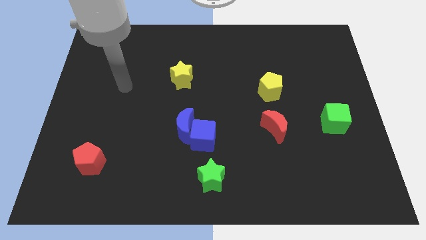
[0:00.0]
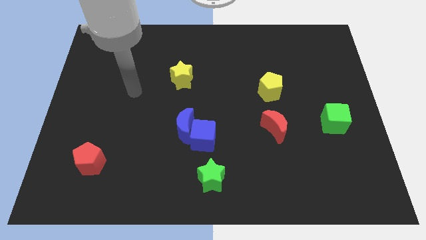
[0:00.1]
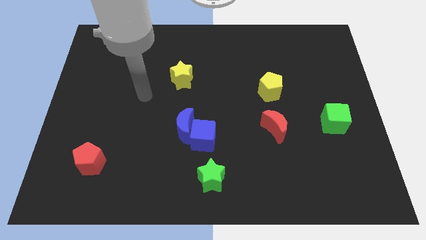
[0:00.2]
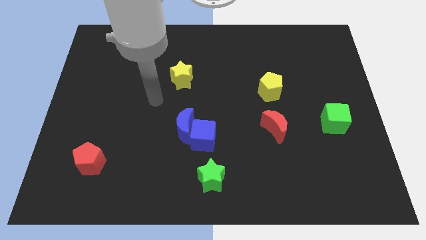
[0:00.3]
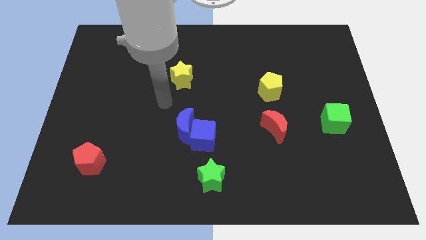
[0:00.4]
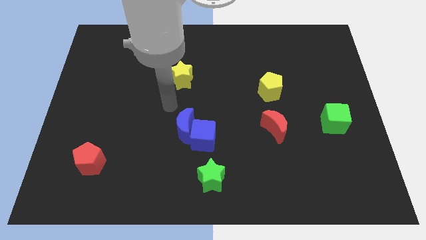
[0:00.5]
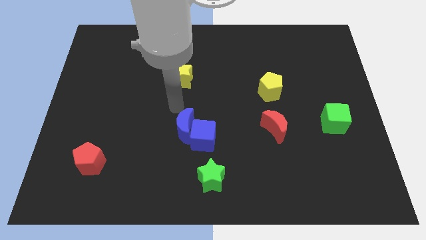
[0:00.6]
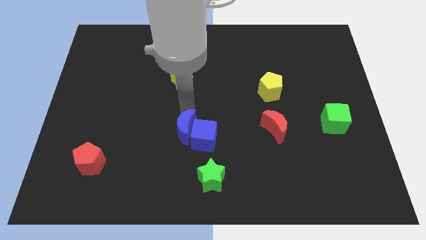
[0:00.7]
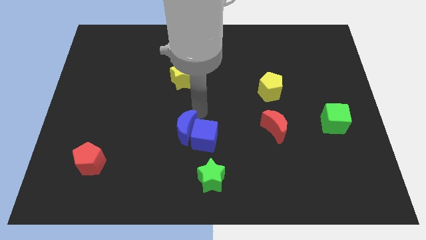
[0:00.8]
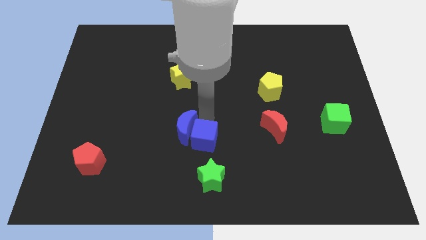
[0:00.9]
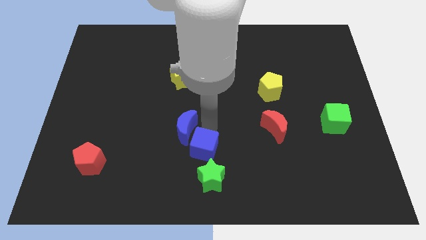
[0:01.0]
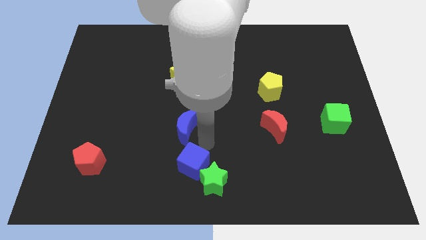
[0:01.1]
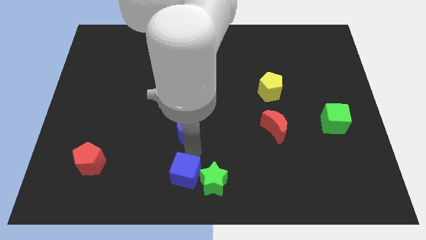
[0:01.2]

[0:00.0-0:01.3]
separate the blue moon from the blue cube

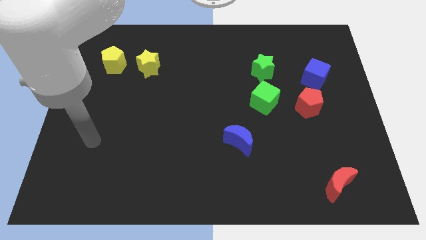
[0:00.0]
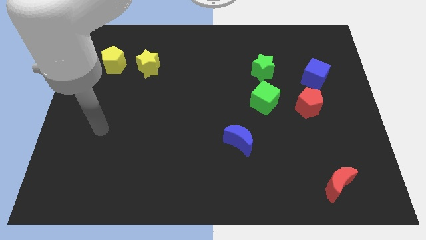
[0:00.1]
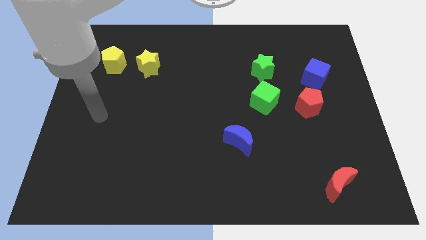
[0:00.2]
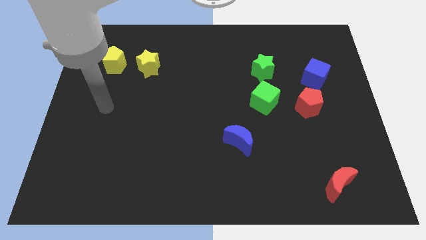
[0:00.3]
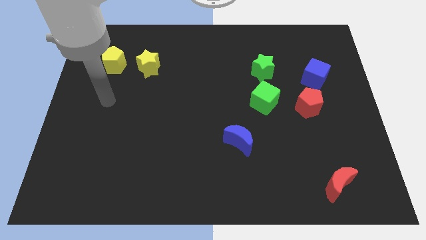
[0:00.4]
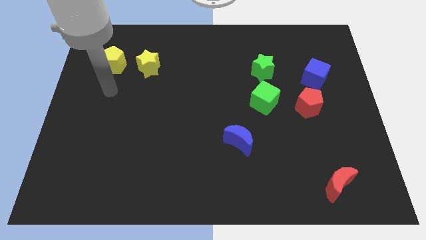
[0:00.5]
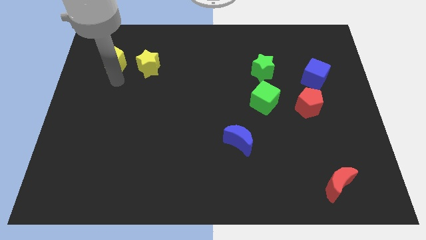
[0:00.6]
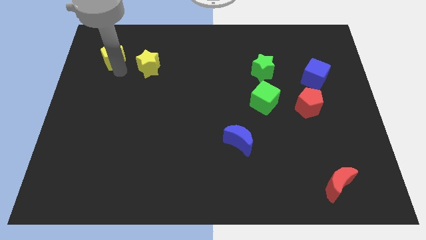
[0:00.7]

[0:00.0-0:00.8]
move the yellow star away from the yellow pentagon

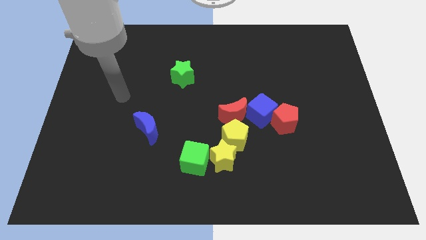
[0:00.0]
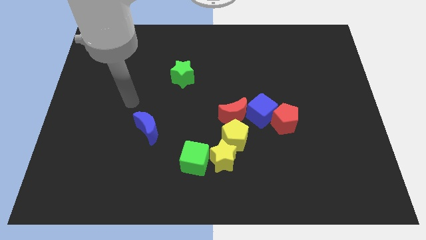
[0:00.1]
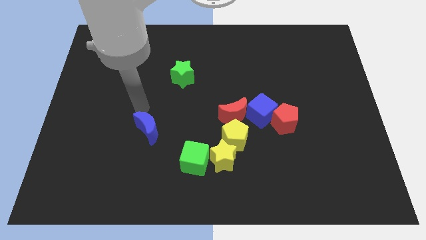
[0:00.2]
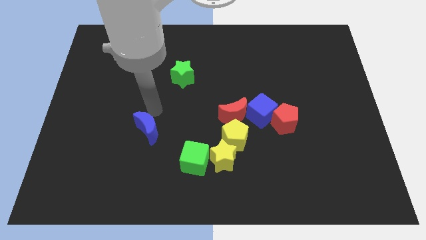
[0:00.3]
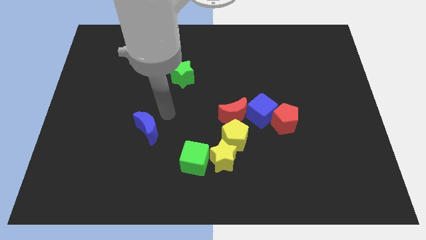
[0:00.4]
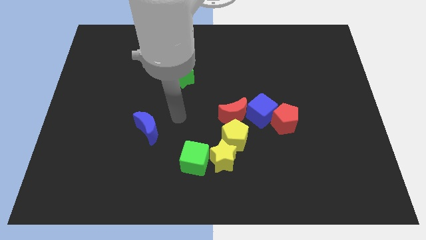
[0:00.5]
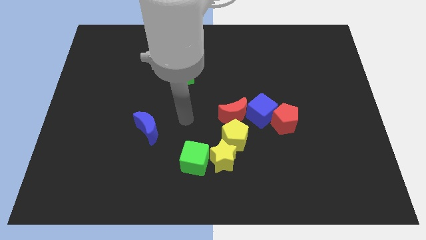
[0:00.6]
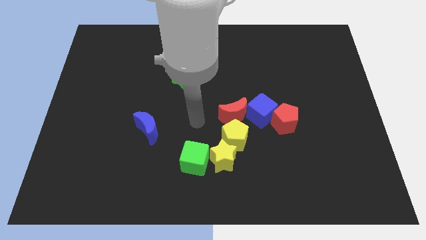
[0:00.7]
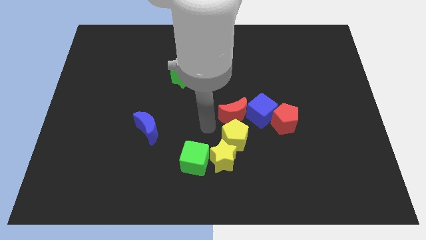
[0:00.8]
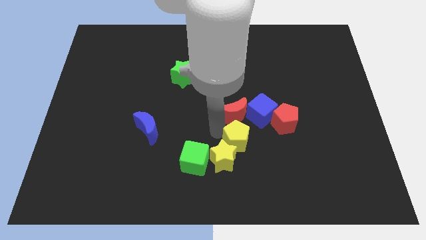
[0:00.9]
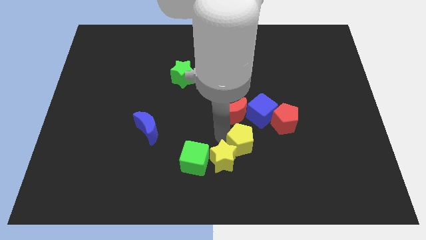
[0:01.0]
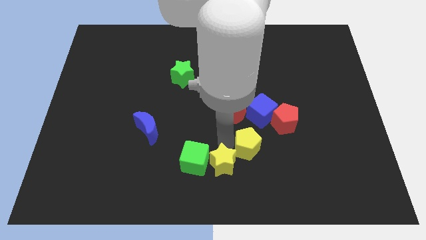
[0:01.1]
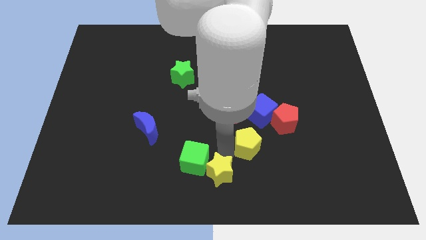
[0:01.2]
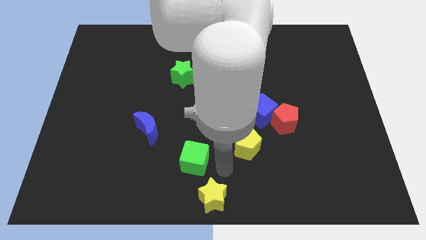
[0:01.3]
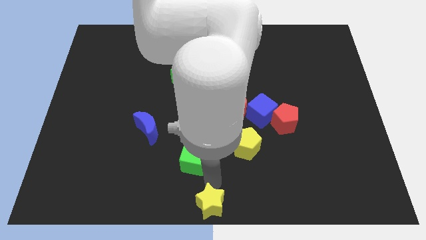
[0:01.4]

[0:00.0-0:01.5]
pull the green cube apart from the yellow star

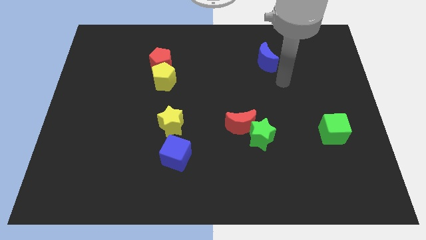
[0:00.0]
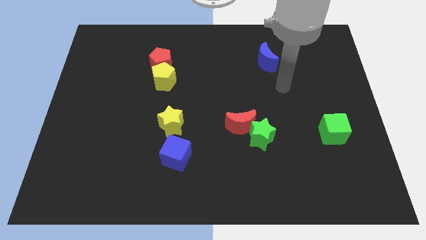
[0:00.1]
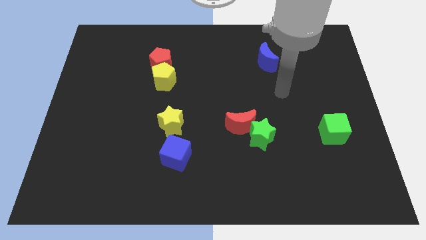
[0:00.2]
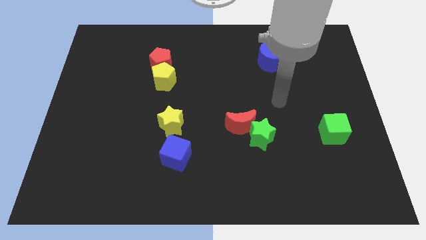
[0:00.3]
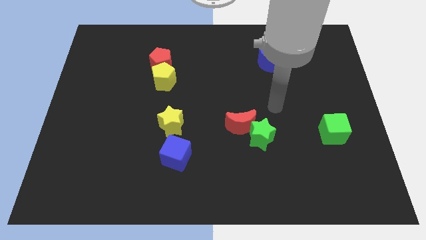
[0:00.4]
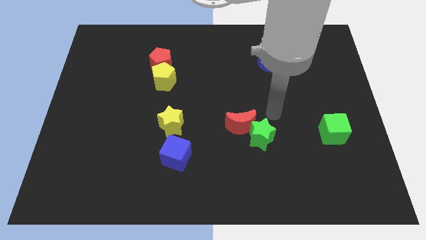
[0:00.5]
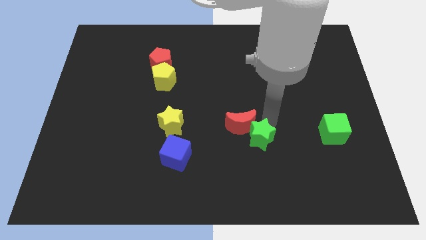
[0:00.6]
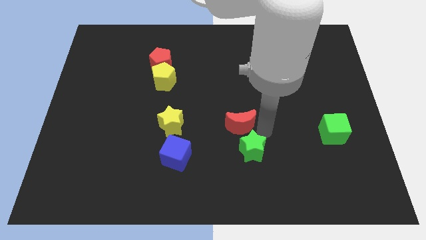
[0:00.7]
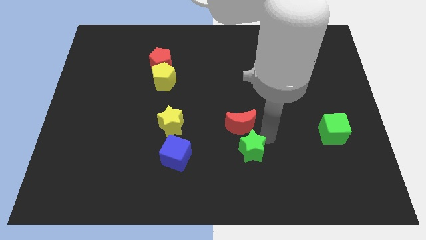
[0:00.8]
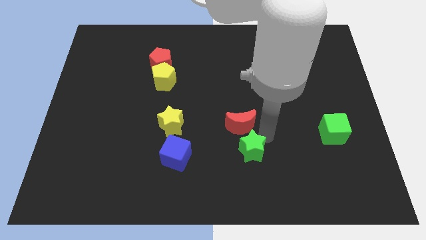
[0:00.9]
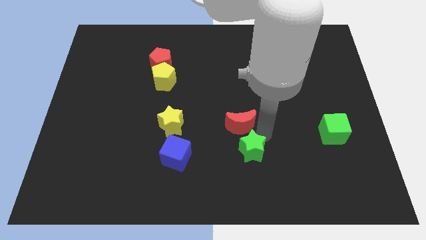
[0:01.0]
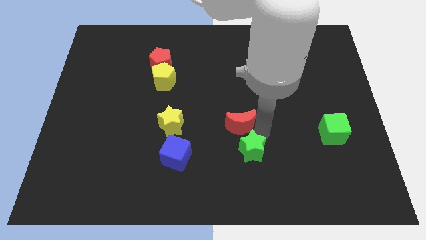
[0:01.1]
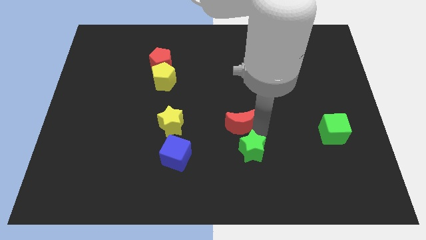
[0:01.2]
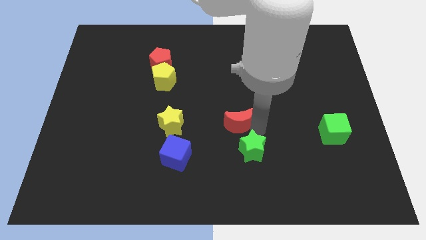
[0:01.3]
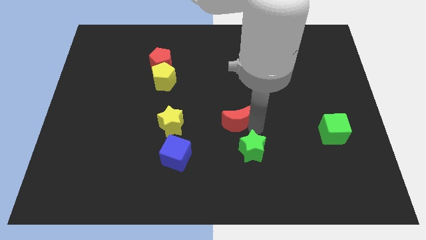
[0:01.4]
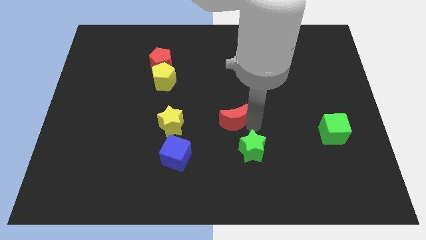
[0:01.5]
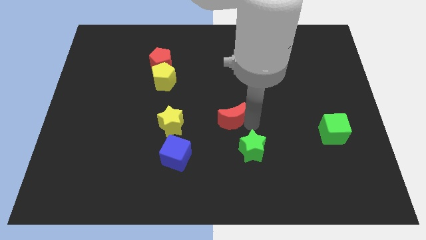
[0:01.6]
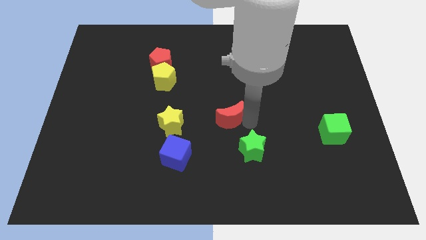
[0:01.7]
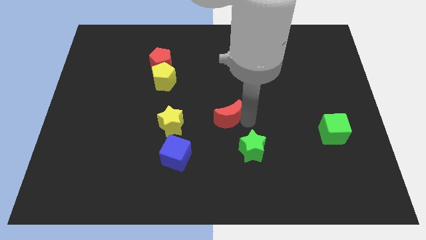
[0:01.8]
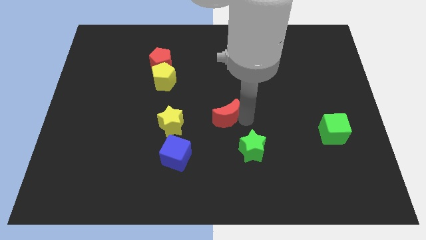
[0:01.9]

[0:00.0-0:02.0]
pull the red moon apart from the green star

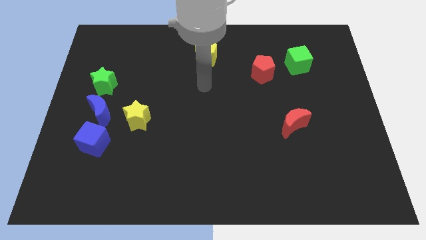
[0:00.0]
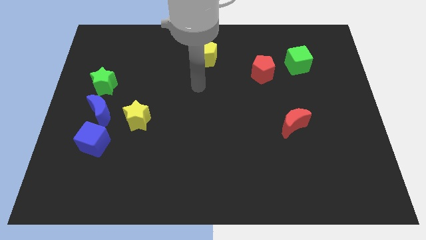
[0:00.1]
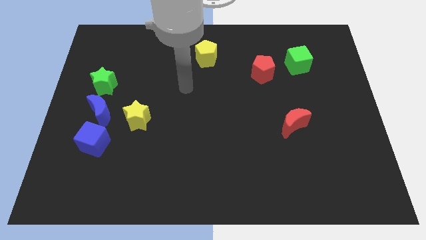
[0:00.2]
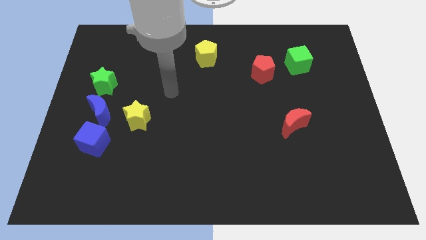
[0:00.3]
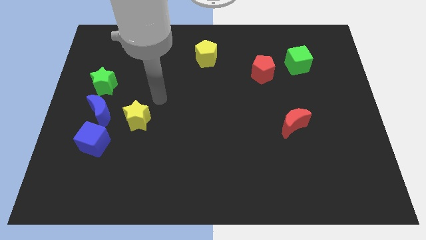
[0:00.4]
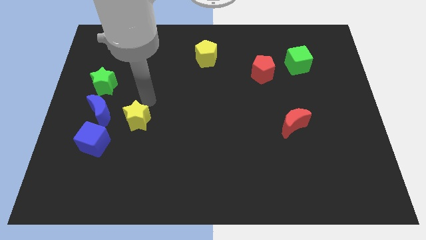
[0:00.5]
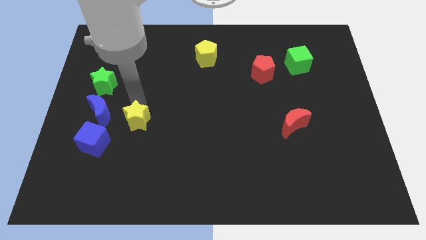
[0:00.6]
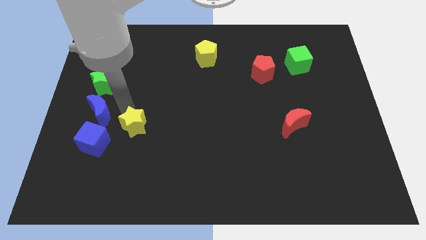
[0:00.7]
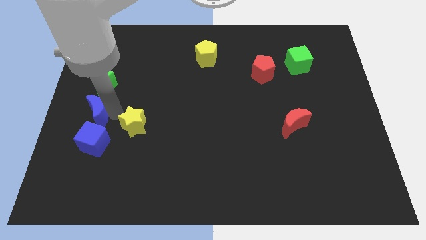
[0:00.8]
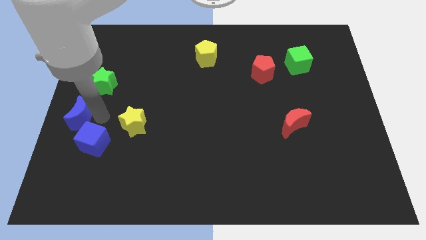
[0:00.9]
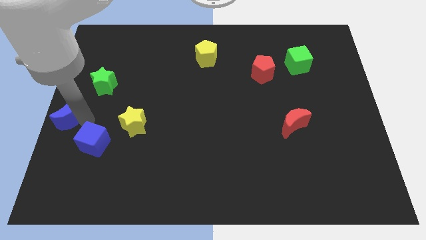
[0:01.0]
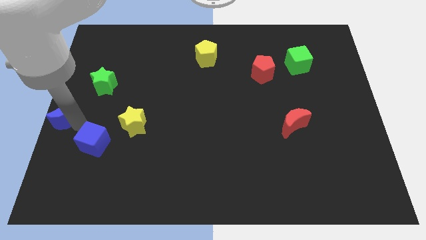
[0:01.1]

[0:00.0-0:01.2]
separate the blue cube from the blue moon

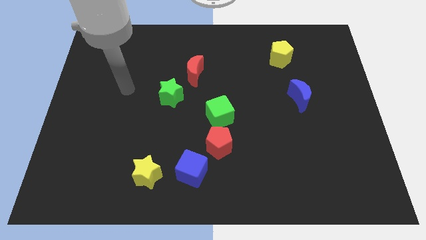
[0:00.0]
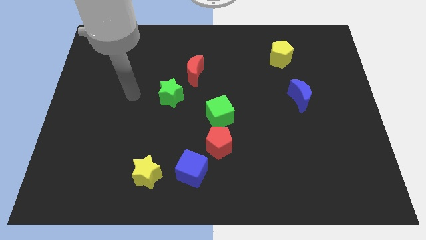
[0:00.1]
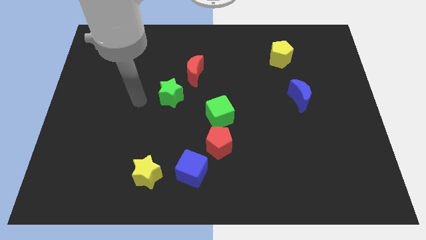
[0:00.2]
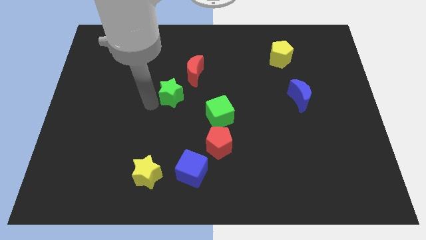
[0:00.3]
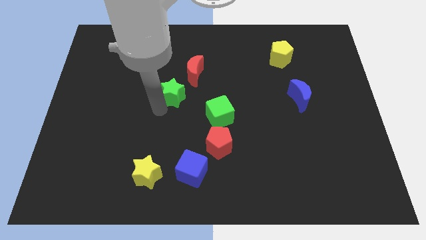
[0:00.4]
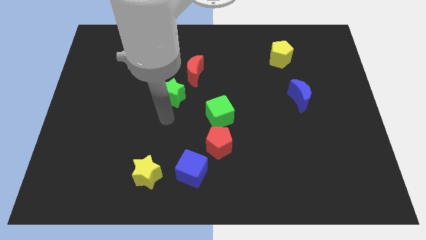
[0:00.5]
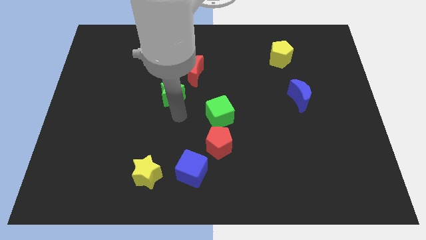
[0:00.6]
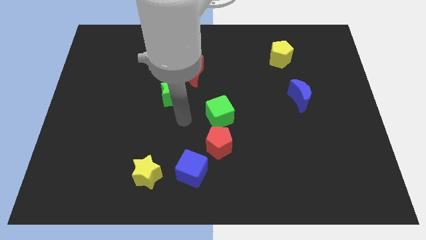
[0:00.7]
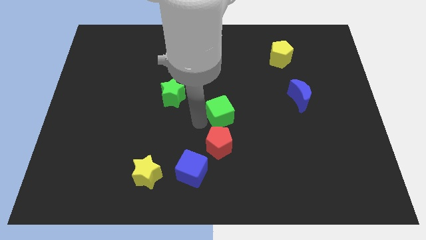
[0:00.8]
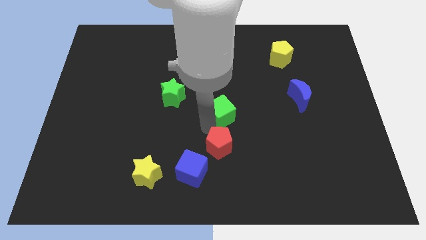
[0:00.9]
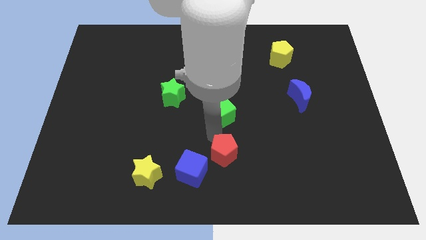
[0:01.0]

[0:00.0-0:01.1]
pull the green cube apart from the red pentagon

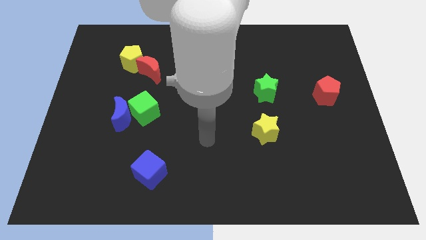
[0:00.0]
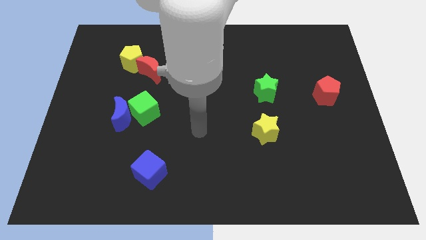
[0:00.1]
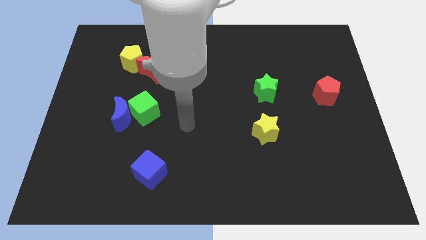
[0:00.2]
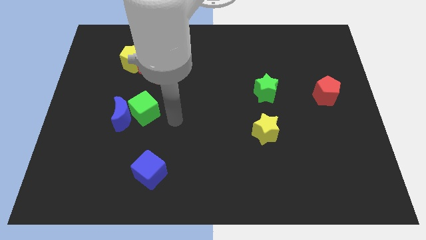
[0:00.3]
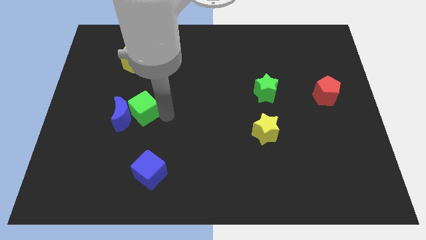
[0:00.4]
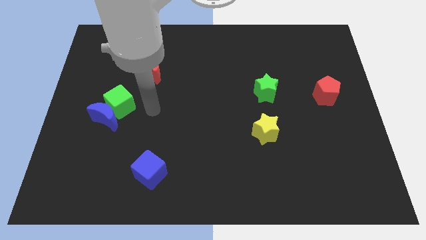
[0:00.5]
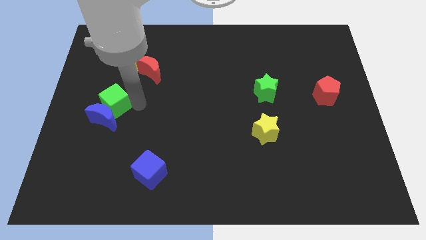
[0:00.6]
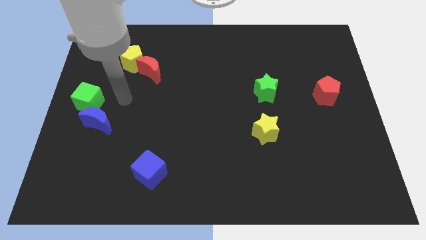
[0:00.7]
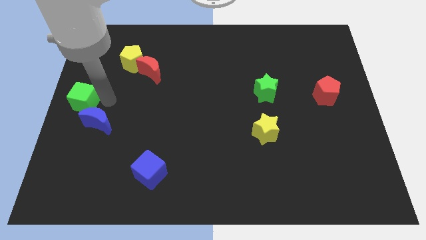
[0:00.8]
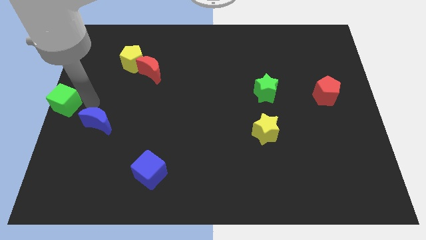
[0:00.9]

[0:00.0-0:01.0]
pull the blue moon apart from the green cube

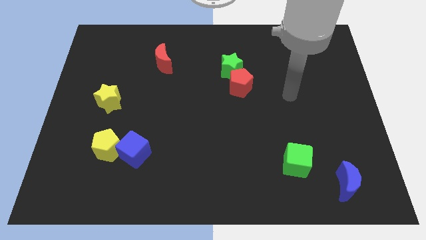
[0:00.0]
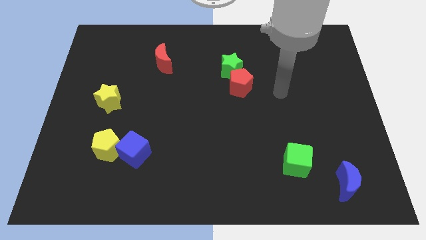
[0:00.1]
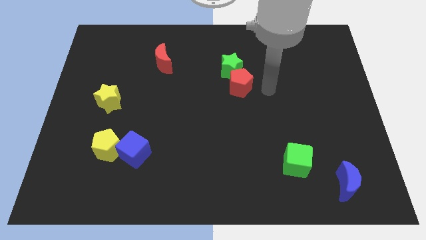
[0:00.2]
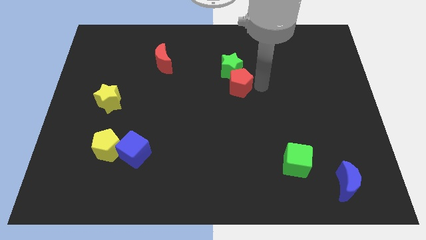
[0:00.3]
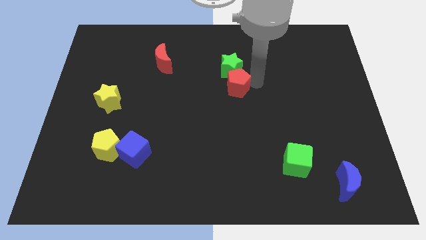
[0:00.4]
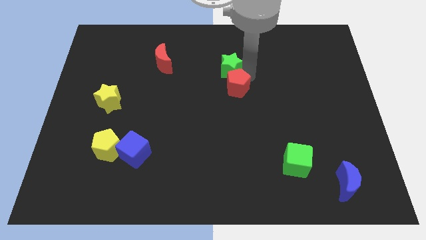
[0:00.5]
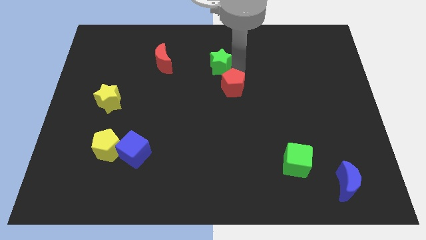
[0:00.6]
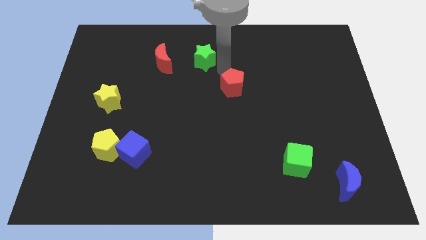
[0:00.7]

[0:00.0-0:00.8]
move the red pentagon away from the green star
